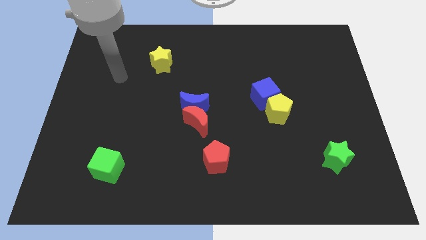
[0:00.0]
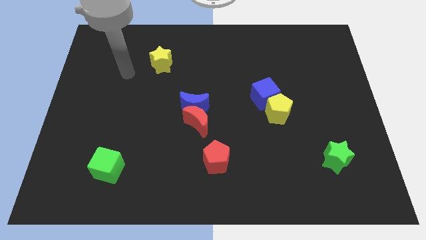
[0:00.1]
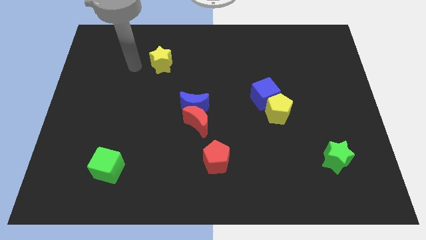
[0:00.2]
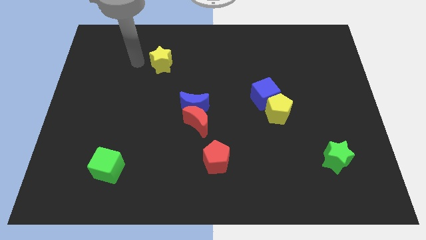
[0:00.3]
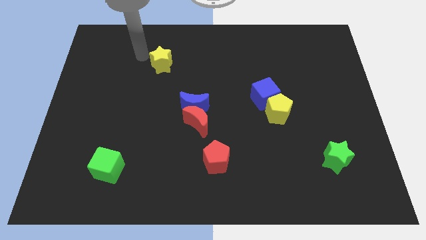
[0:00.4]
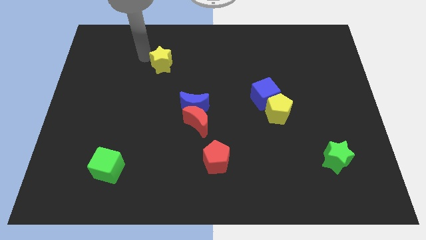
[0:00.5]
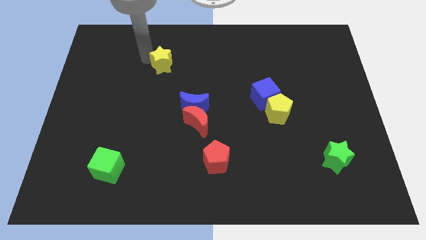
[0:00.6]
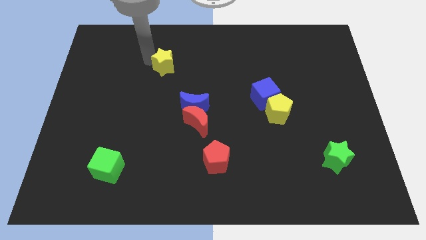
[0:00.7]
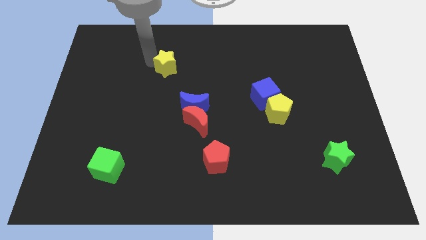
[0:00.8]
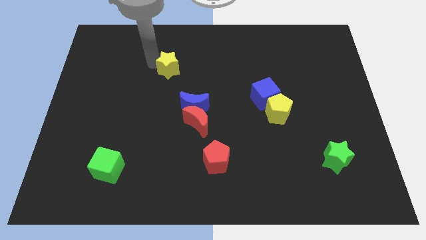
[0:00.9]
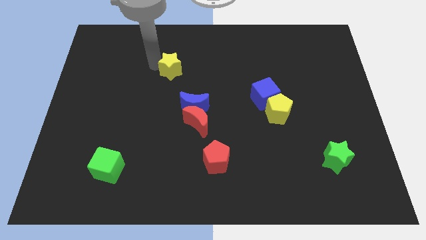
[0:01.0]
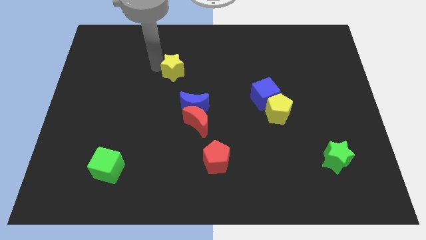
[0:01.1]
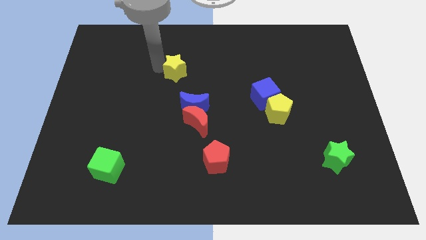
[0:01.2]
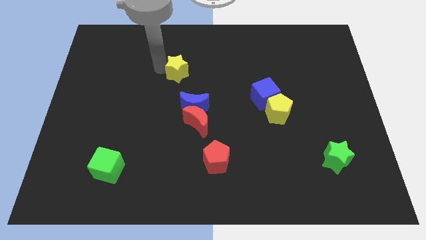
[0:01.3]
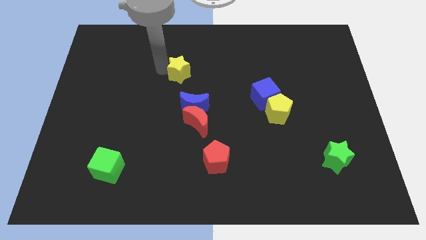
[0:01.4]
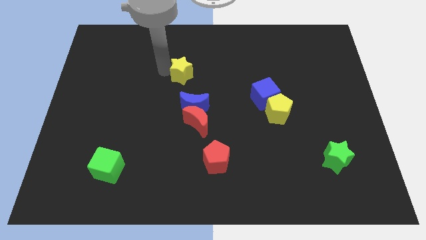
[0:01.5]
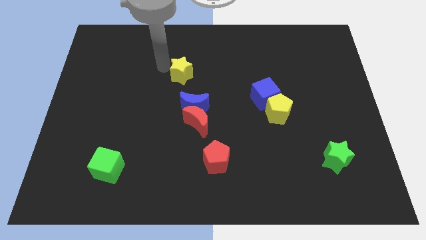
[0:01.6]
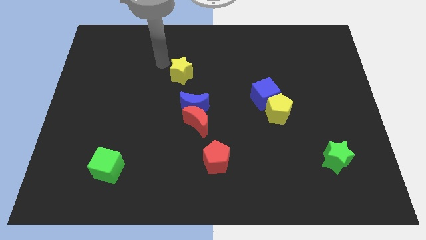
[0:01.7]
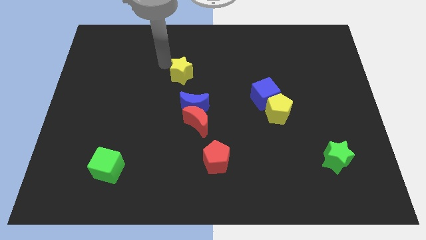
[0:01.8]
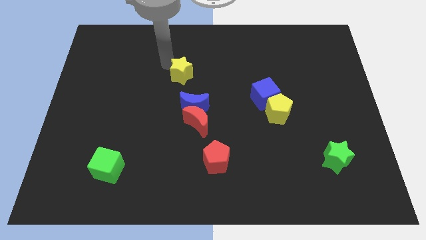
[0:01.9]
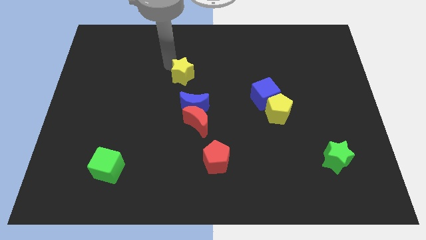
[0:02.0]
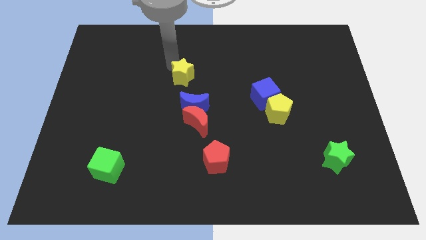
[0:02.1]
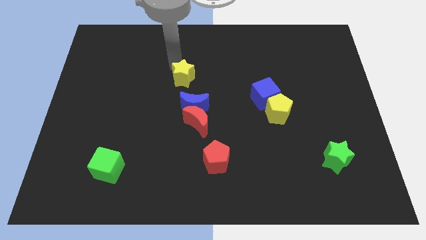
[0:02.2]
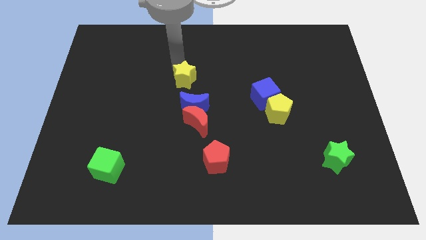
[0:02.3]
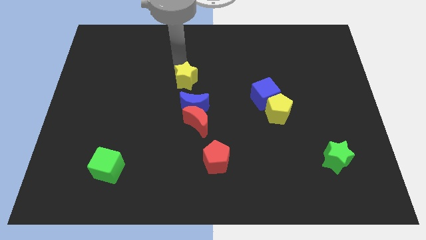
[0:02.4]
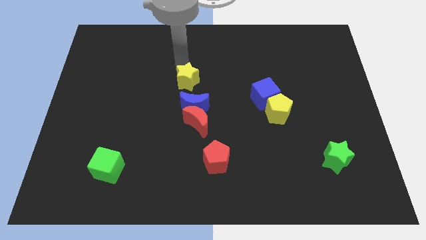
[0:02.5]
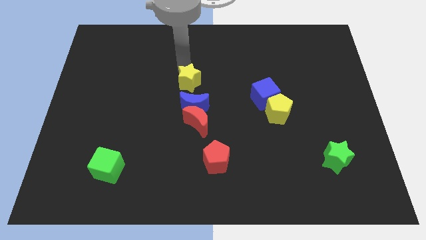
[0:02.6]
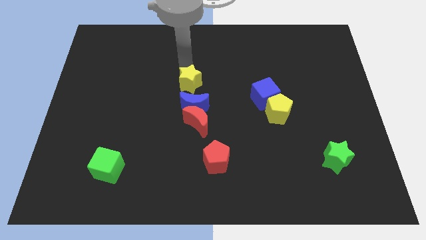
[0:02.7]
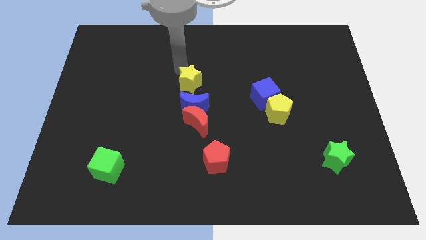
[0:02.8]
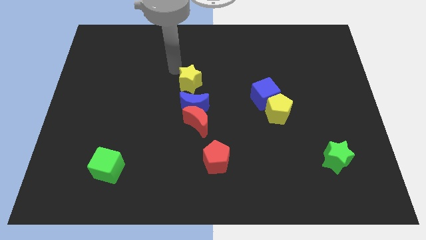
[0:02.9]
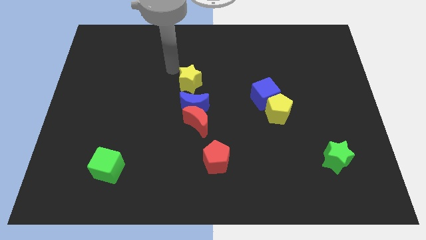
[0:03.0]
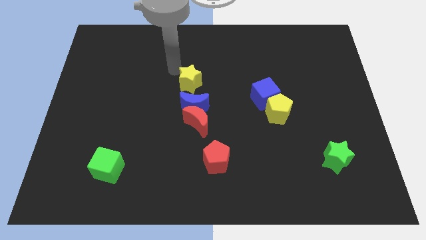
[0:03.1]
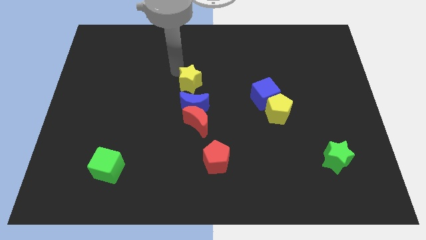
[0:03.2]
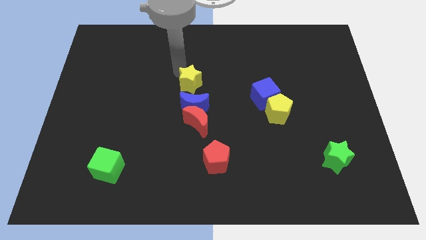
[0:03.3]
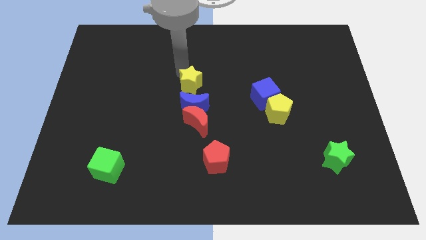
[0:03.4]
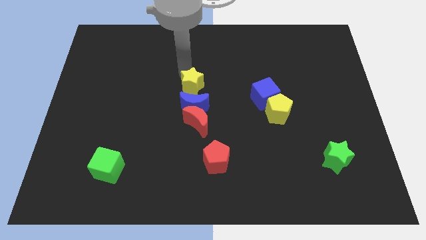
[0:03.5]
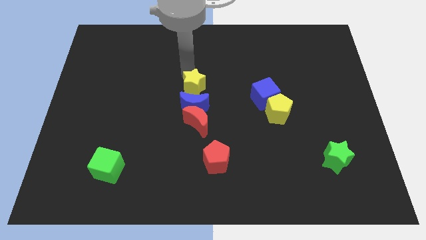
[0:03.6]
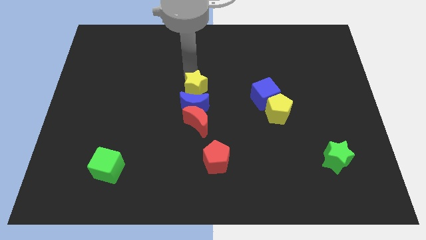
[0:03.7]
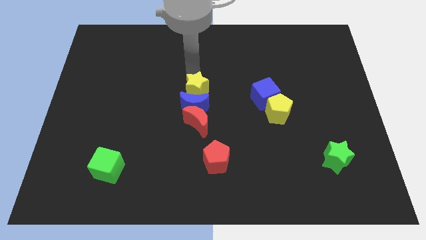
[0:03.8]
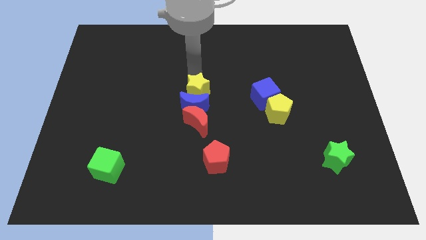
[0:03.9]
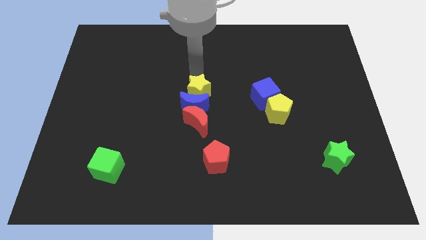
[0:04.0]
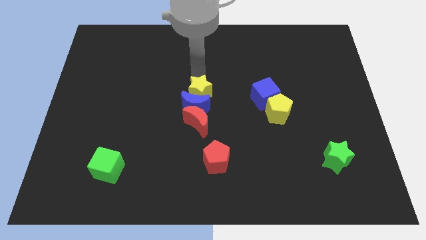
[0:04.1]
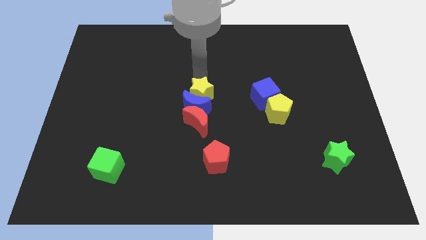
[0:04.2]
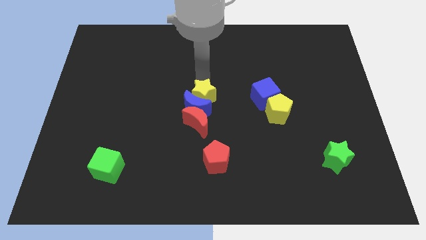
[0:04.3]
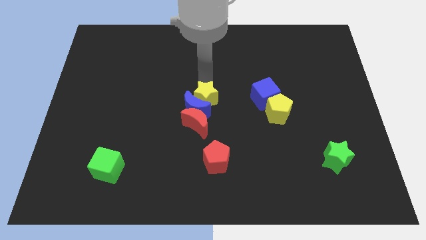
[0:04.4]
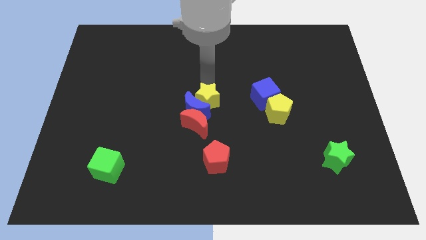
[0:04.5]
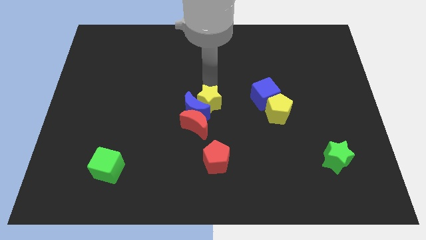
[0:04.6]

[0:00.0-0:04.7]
move the yellow star to the top of the red pentagon

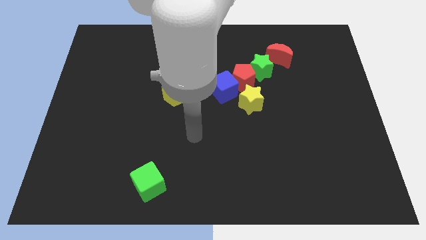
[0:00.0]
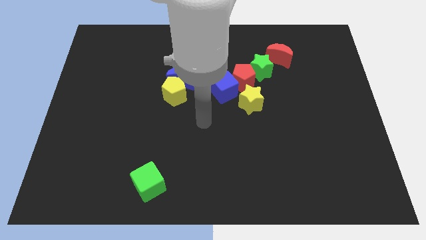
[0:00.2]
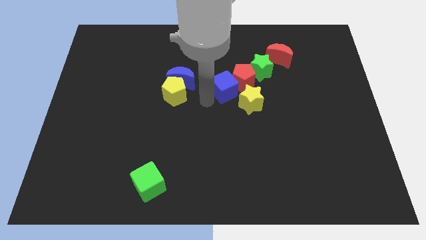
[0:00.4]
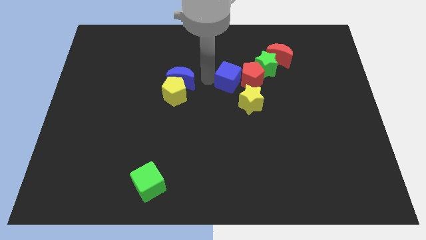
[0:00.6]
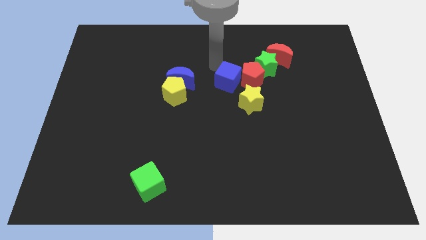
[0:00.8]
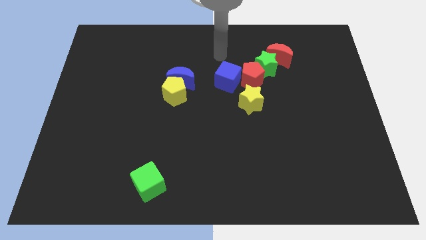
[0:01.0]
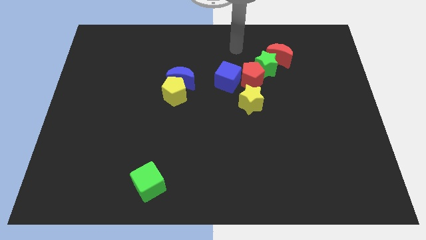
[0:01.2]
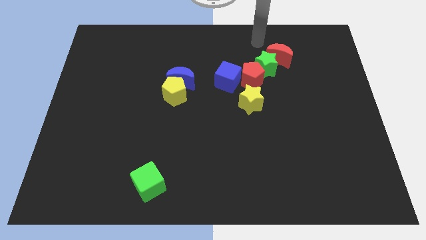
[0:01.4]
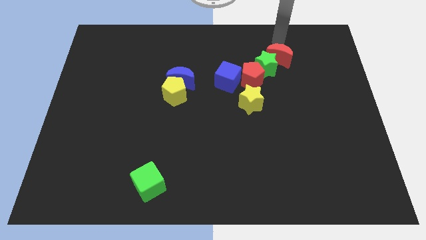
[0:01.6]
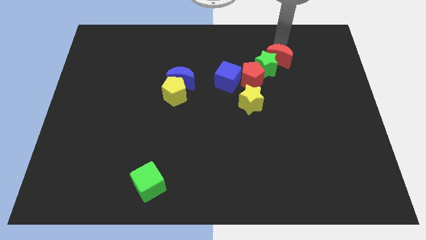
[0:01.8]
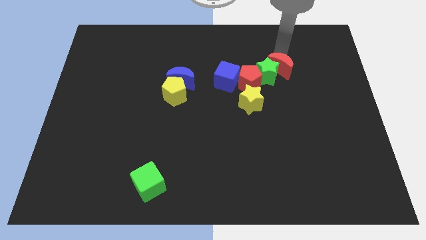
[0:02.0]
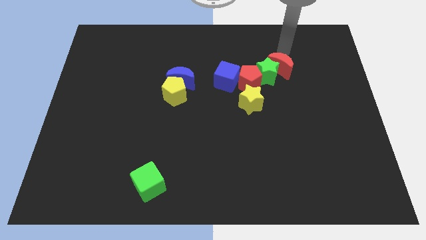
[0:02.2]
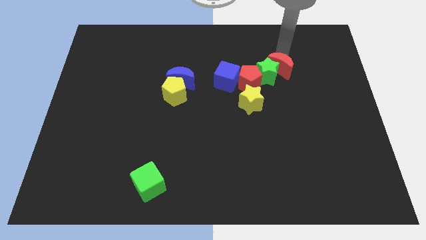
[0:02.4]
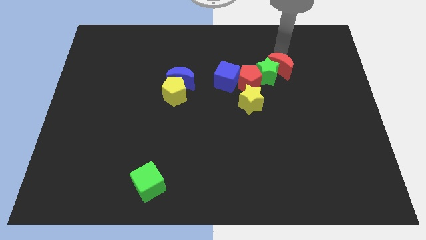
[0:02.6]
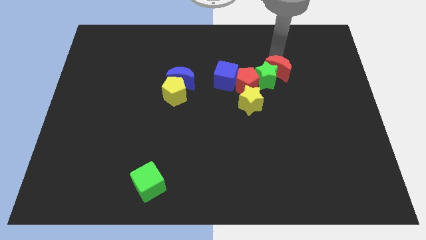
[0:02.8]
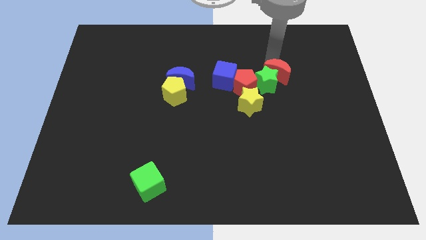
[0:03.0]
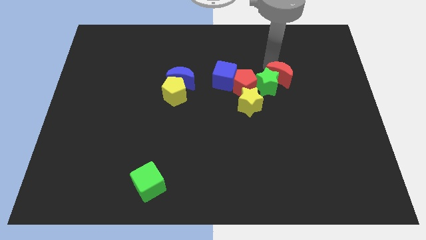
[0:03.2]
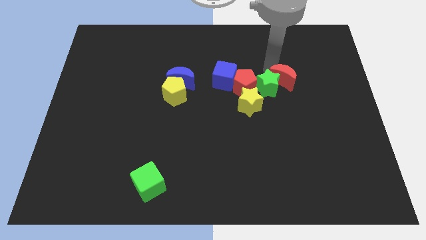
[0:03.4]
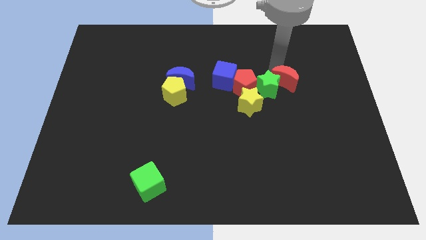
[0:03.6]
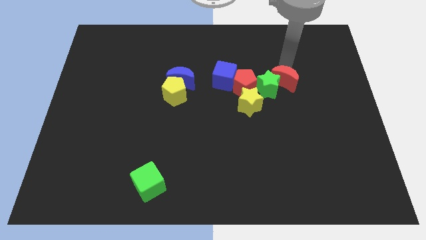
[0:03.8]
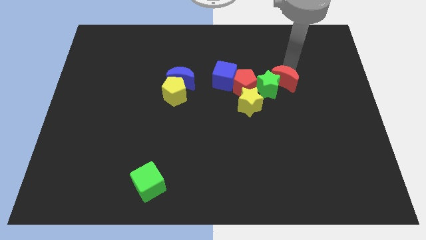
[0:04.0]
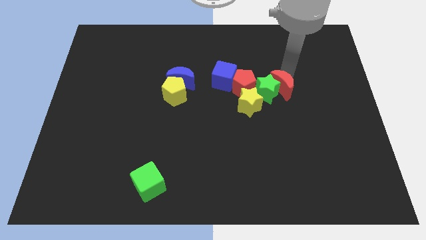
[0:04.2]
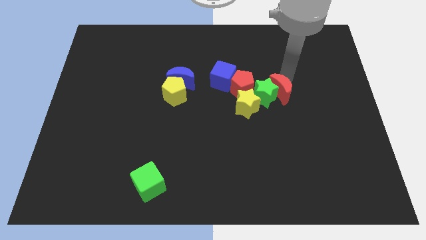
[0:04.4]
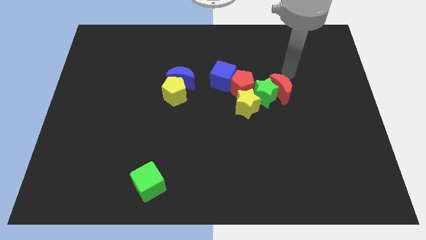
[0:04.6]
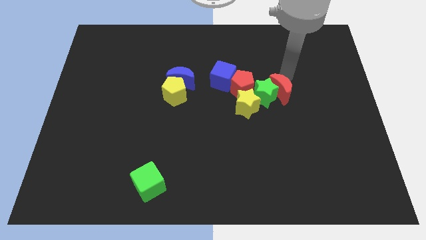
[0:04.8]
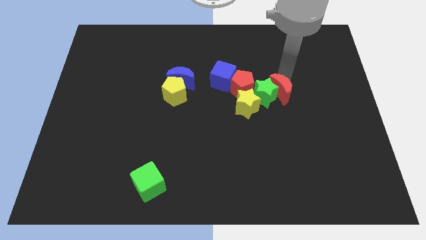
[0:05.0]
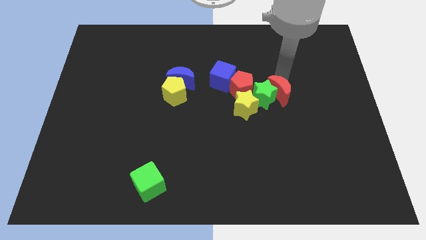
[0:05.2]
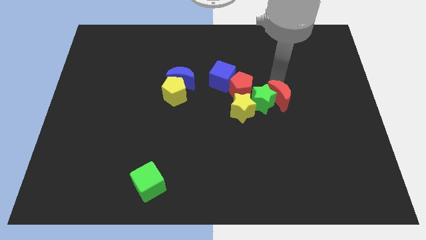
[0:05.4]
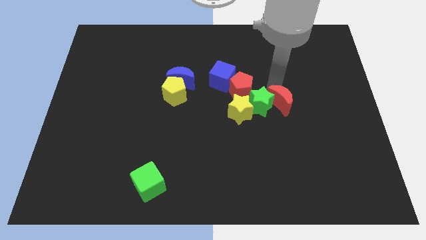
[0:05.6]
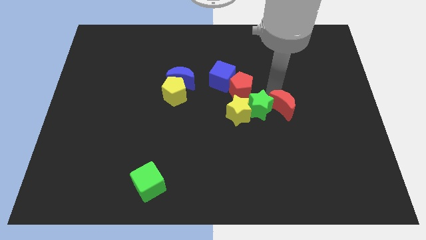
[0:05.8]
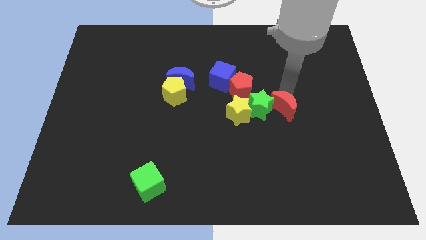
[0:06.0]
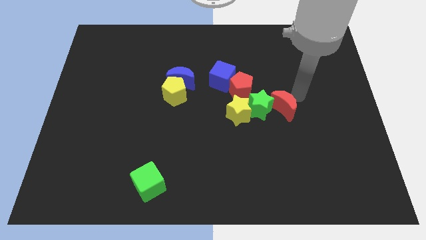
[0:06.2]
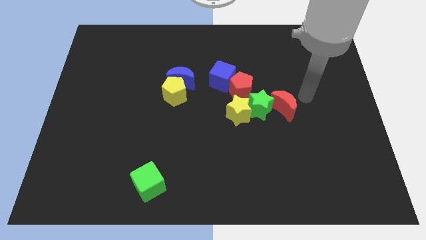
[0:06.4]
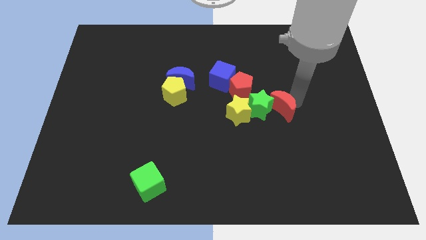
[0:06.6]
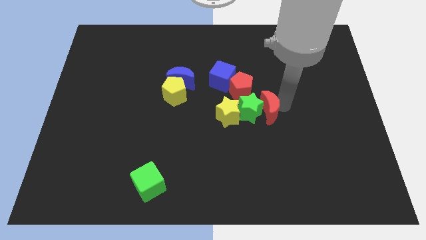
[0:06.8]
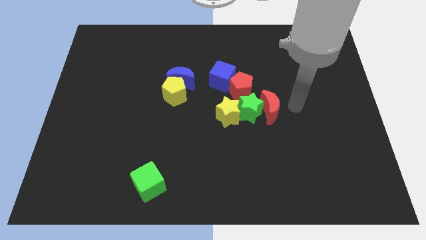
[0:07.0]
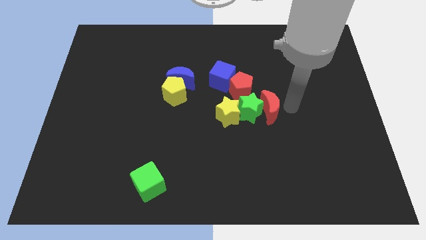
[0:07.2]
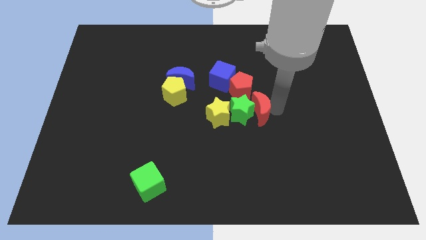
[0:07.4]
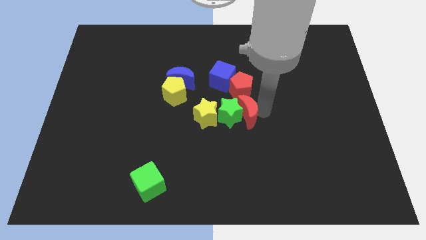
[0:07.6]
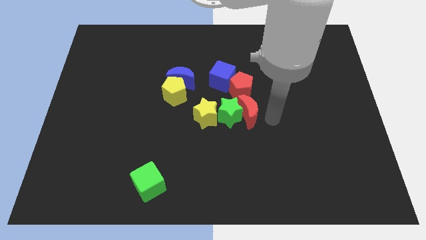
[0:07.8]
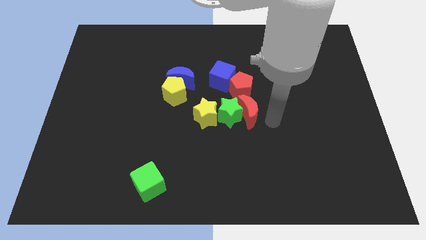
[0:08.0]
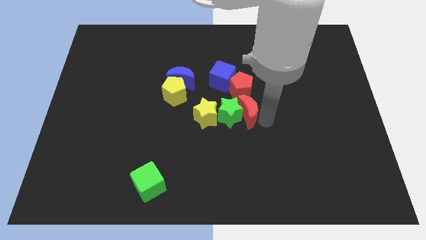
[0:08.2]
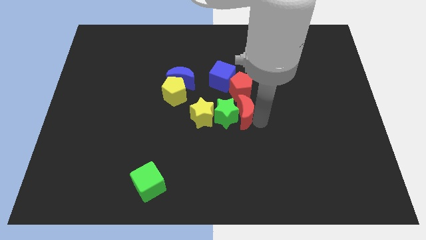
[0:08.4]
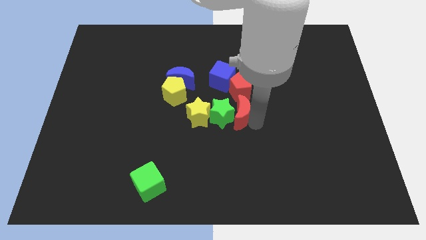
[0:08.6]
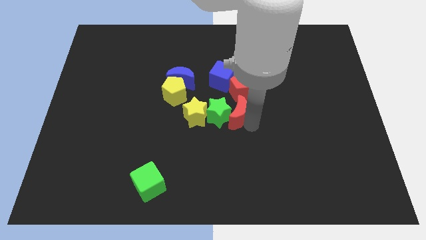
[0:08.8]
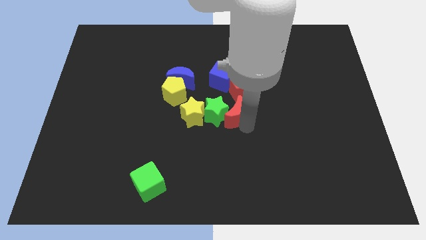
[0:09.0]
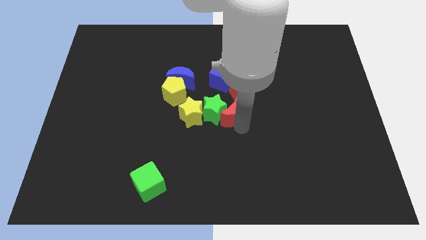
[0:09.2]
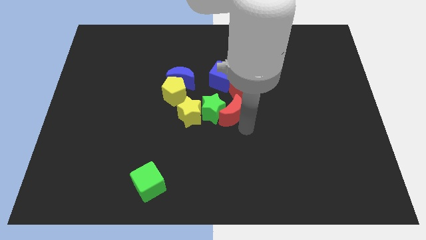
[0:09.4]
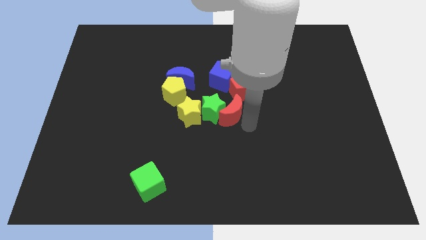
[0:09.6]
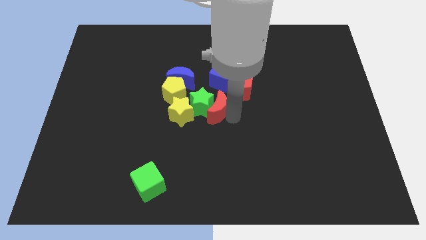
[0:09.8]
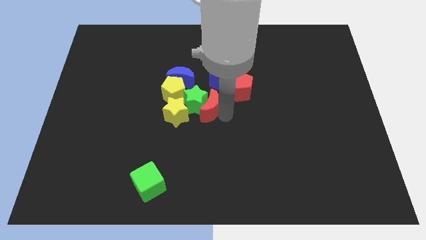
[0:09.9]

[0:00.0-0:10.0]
move the red moon to the bottom left of the blue cube
